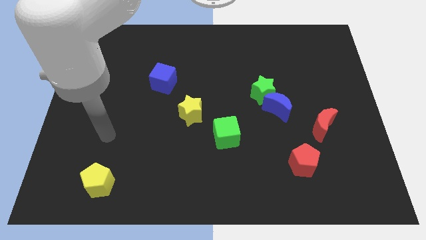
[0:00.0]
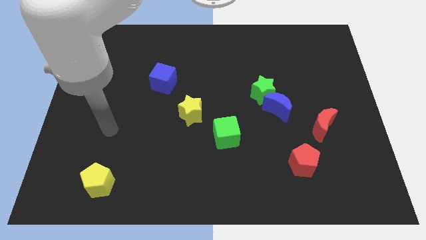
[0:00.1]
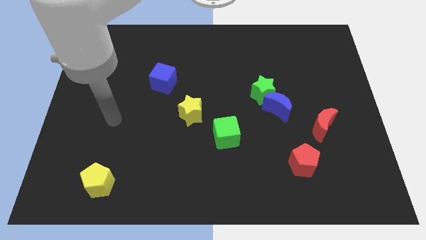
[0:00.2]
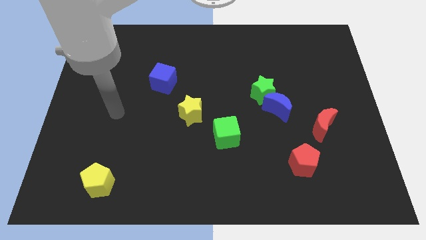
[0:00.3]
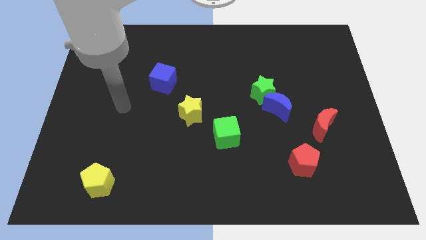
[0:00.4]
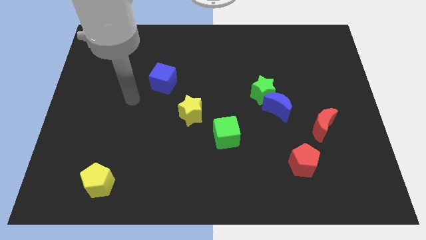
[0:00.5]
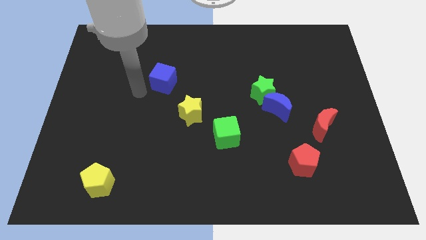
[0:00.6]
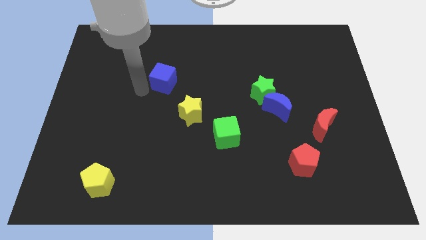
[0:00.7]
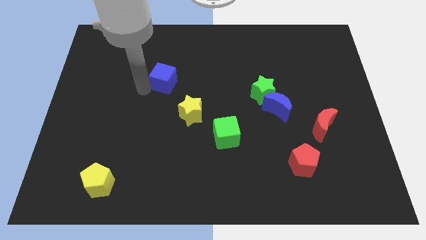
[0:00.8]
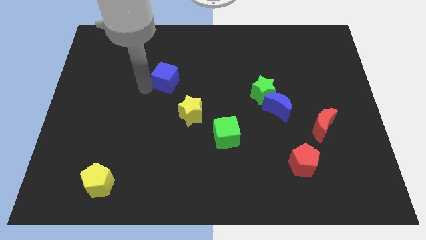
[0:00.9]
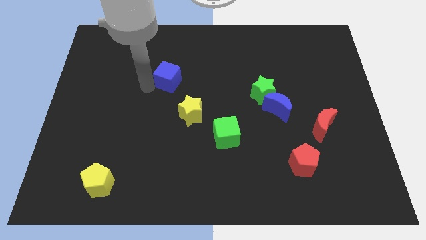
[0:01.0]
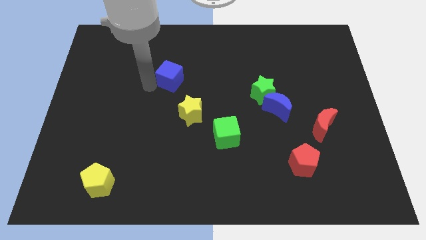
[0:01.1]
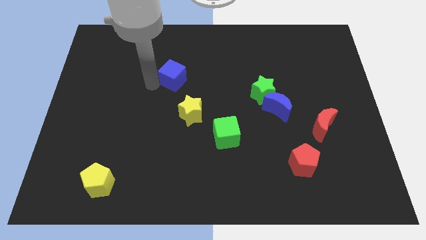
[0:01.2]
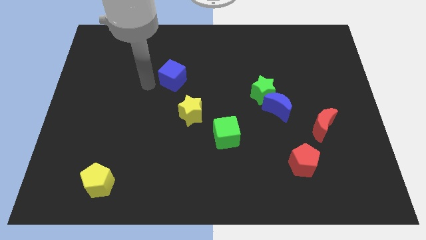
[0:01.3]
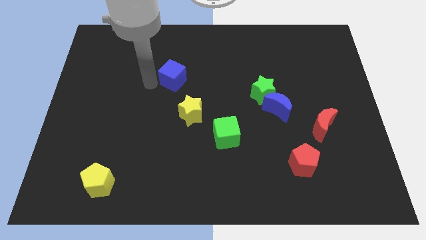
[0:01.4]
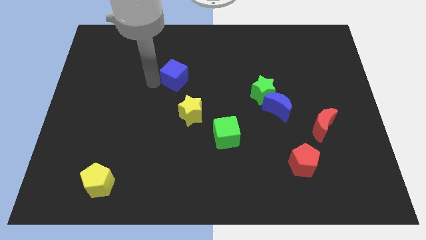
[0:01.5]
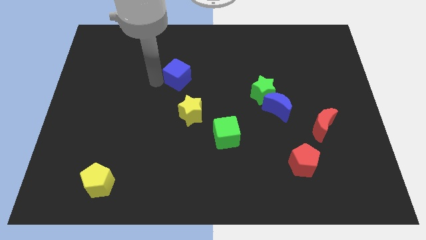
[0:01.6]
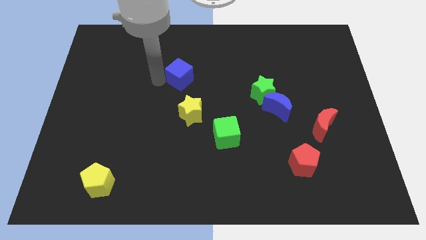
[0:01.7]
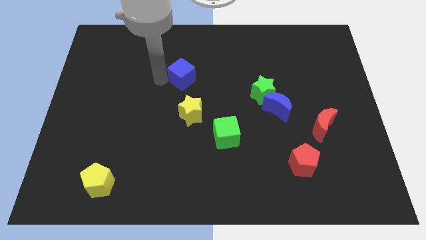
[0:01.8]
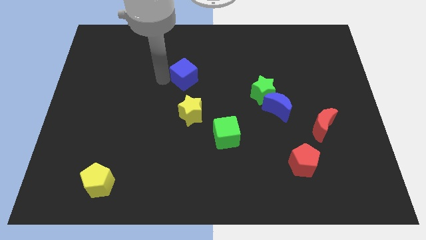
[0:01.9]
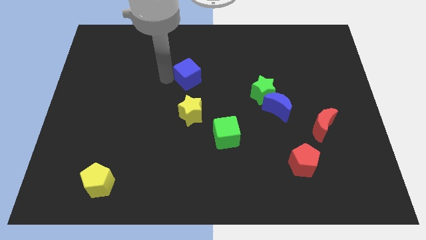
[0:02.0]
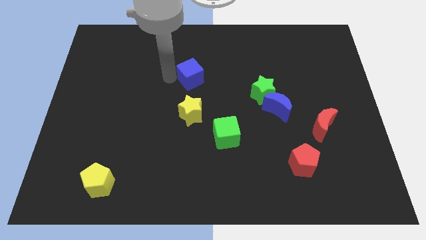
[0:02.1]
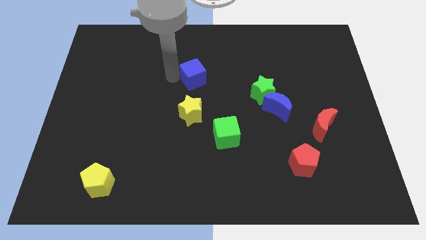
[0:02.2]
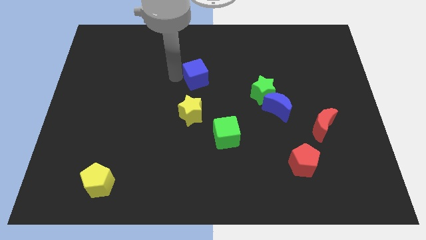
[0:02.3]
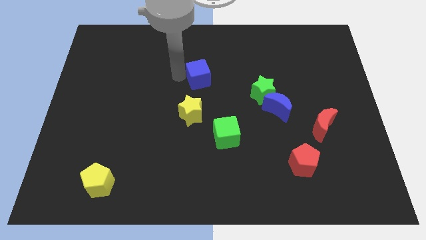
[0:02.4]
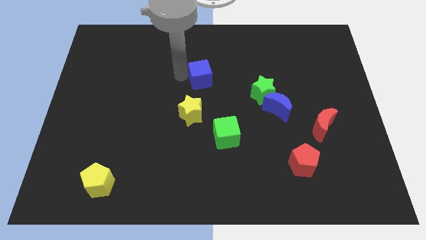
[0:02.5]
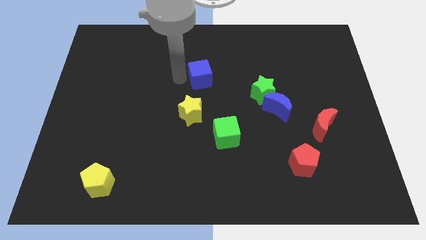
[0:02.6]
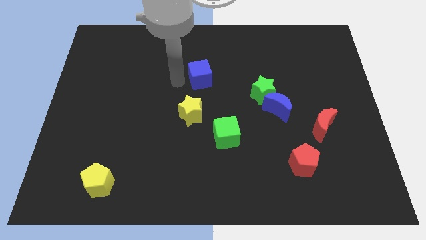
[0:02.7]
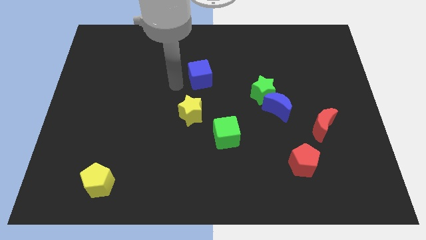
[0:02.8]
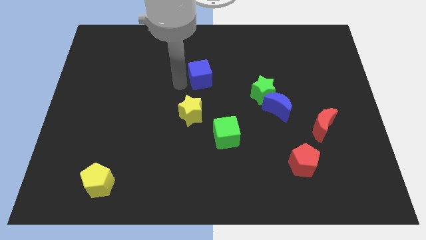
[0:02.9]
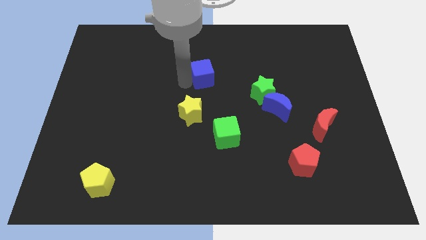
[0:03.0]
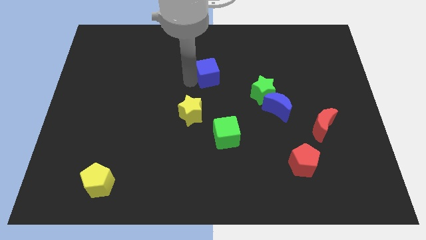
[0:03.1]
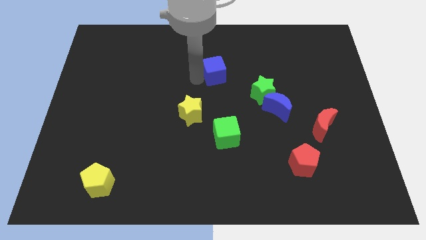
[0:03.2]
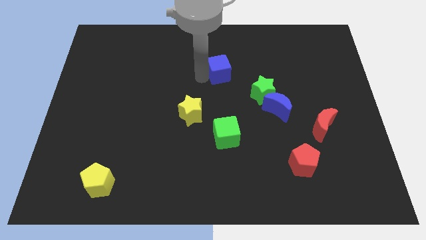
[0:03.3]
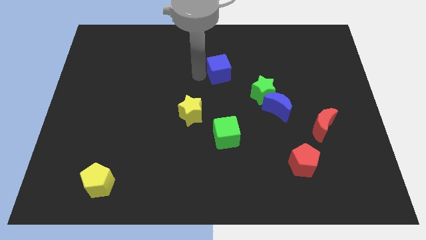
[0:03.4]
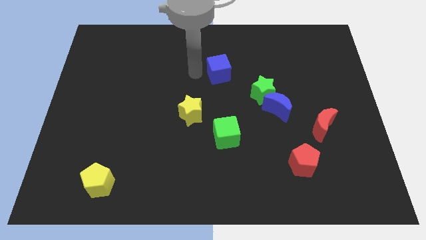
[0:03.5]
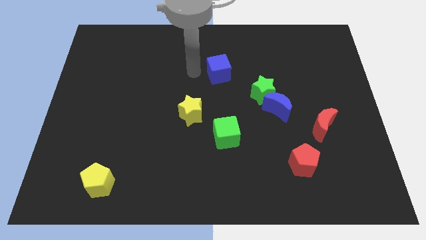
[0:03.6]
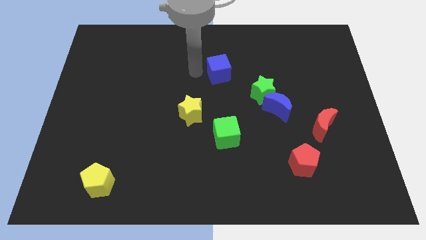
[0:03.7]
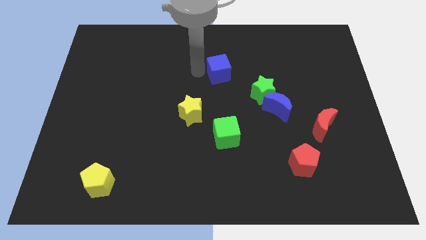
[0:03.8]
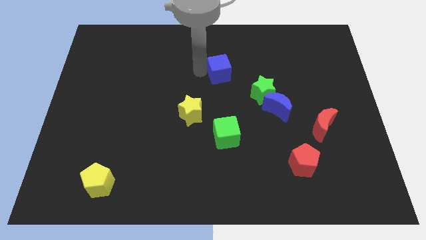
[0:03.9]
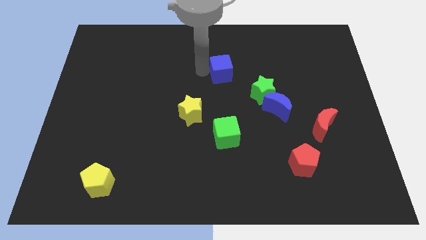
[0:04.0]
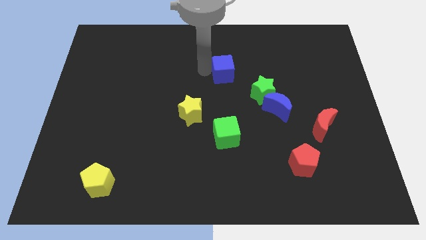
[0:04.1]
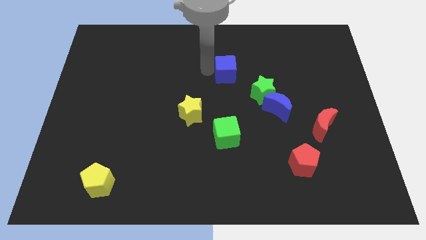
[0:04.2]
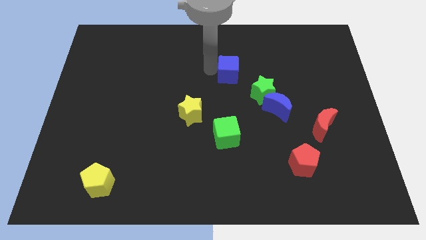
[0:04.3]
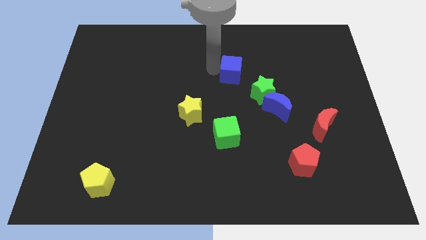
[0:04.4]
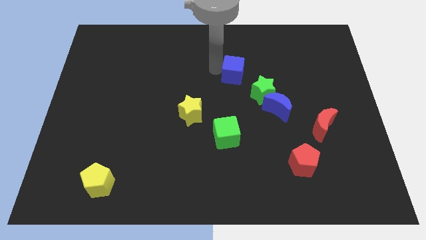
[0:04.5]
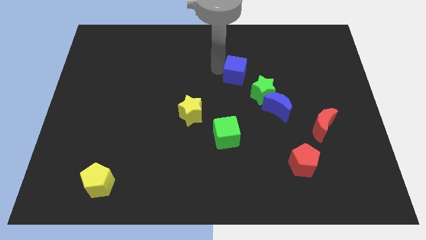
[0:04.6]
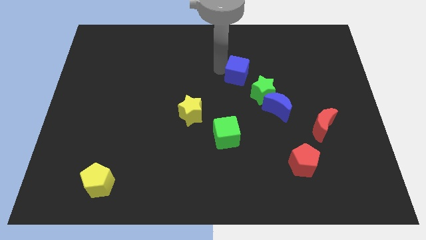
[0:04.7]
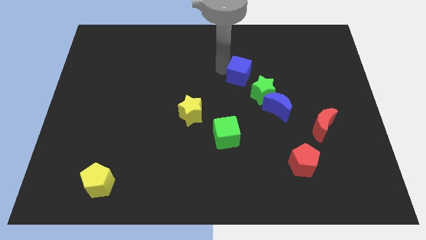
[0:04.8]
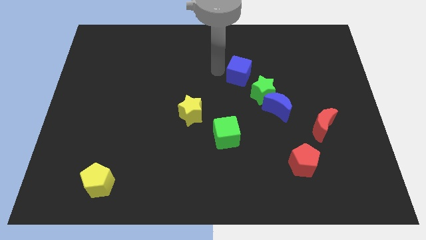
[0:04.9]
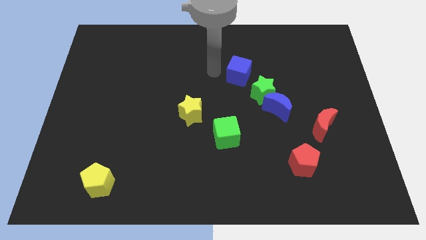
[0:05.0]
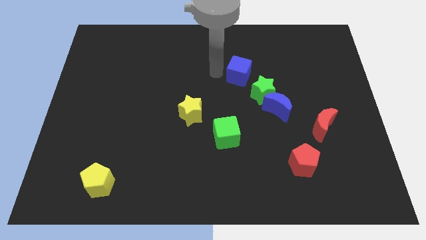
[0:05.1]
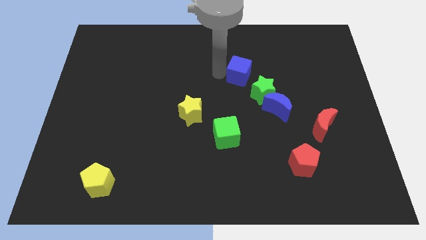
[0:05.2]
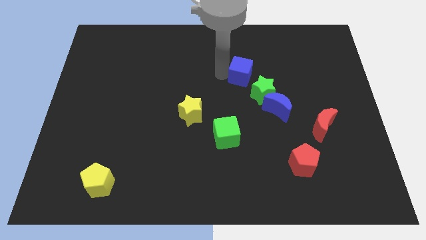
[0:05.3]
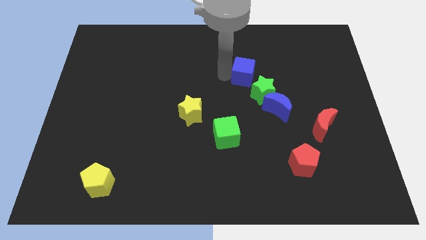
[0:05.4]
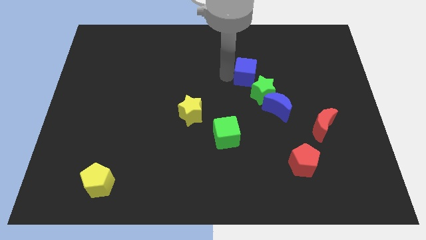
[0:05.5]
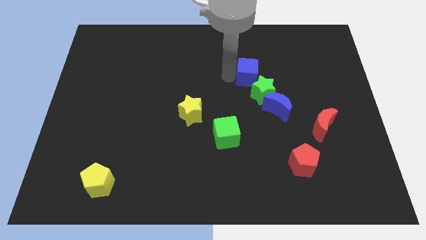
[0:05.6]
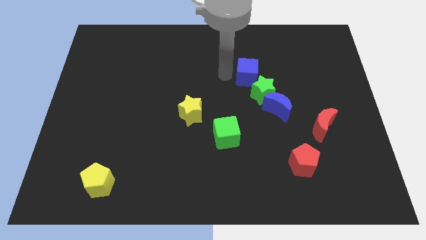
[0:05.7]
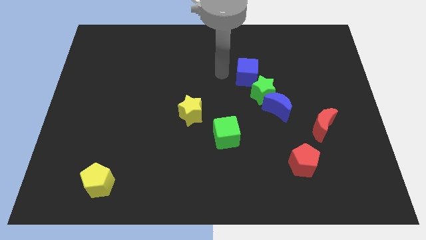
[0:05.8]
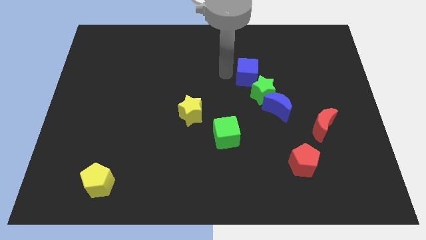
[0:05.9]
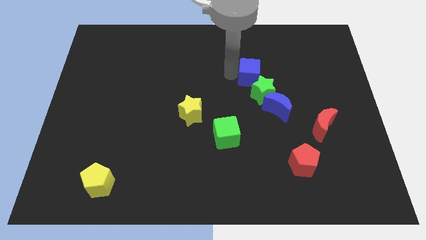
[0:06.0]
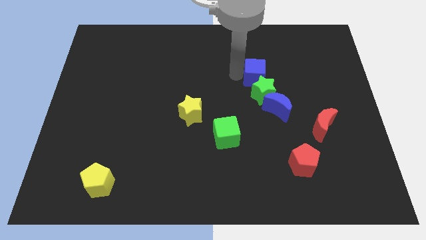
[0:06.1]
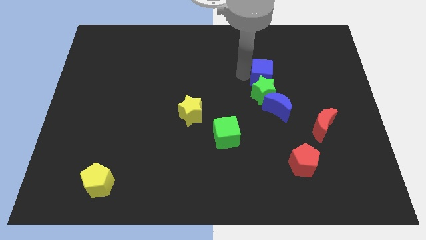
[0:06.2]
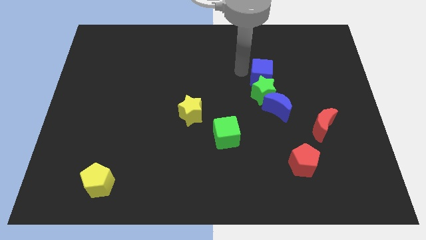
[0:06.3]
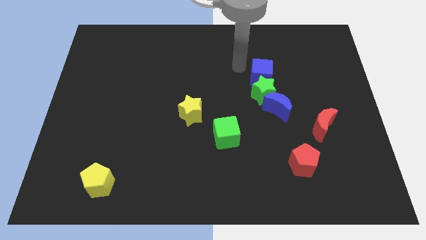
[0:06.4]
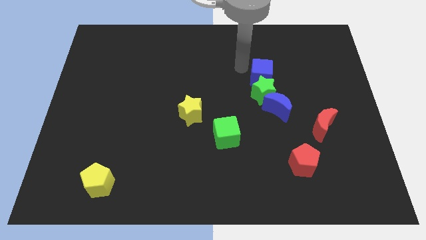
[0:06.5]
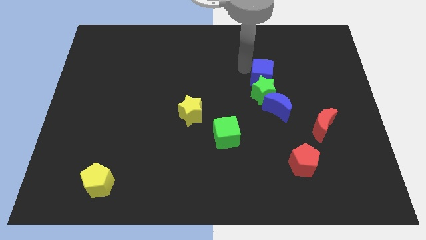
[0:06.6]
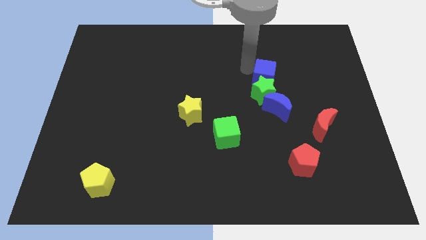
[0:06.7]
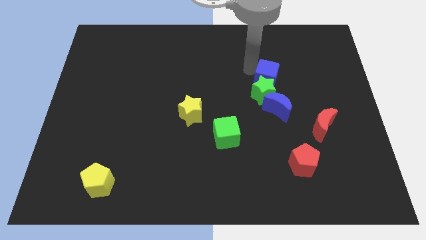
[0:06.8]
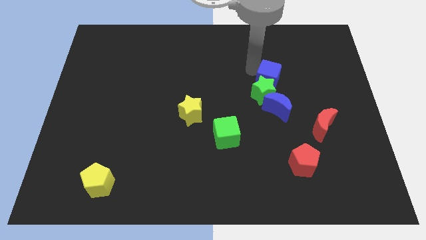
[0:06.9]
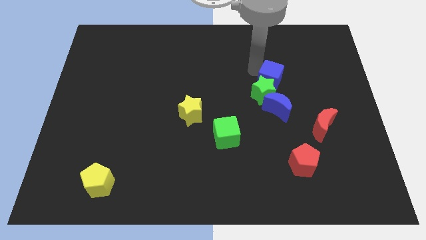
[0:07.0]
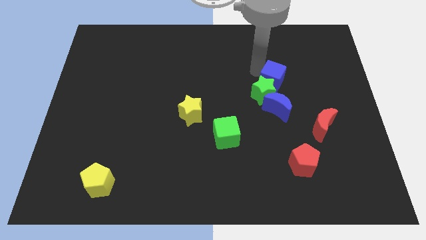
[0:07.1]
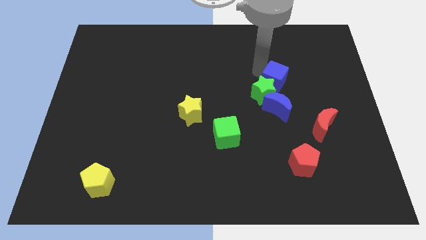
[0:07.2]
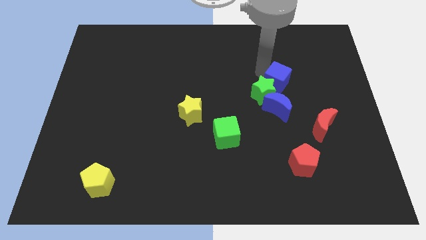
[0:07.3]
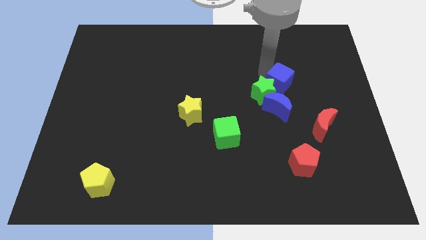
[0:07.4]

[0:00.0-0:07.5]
push the blue cube to the top right side of the blue moon
